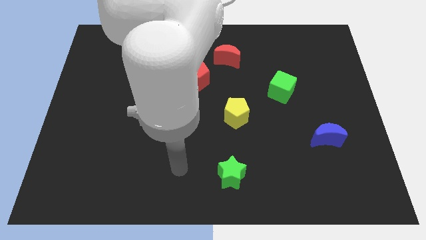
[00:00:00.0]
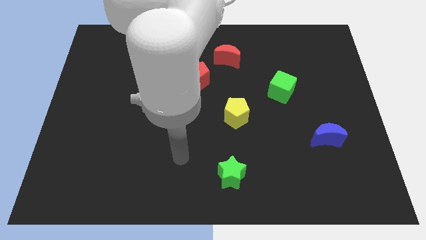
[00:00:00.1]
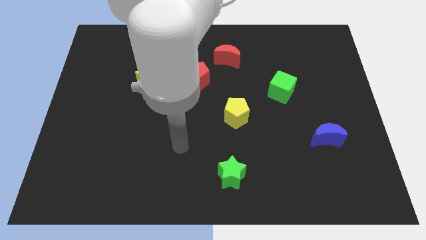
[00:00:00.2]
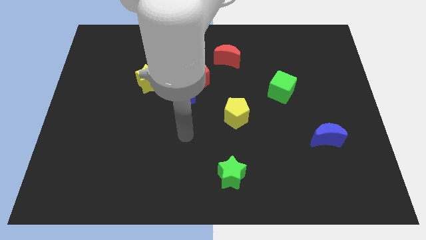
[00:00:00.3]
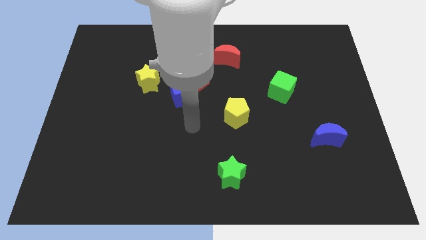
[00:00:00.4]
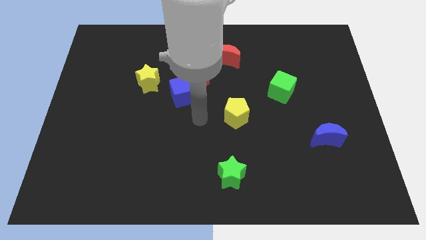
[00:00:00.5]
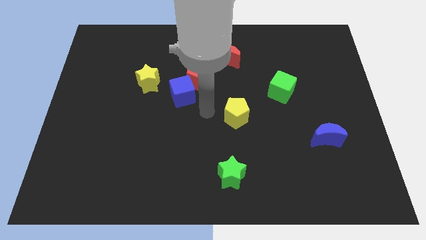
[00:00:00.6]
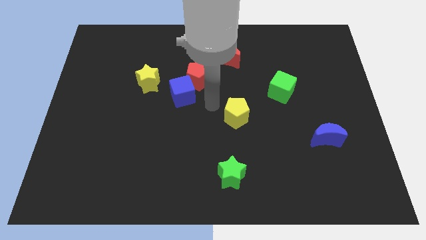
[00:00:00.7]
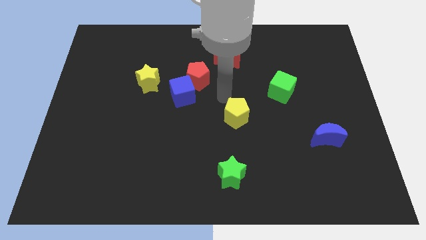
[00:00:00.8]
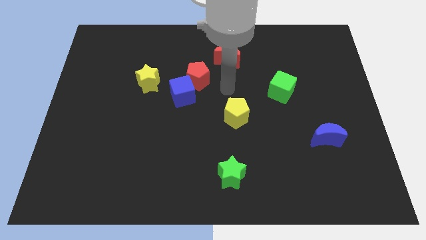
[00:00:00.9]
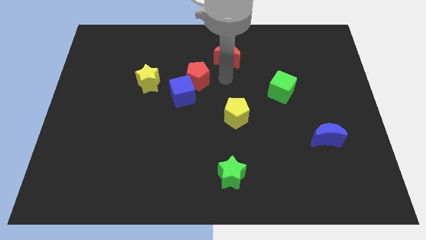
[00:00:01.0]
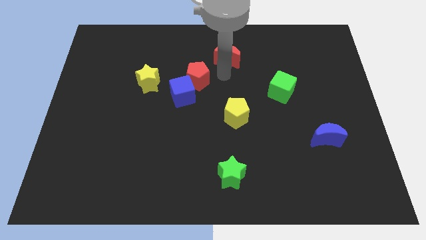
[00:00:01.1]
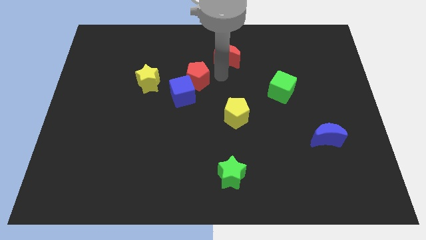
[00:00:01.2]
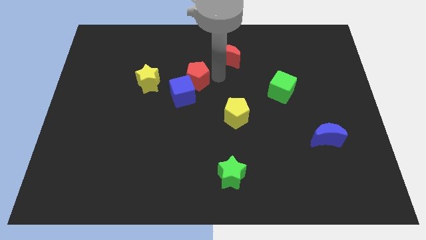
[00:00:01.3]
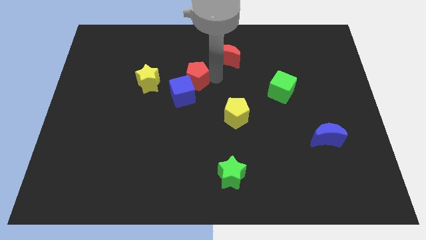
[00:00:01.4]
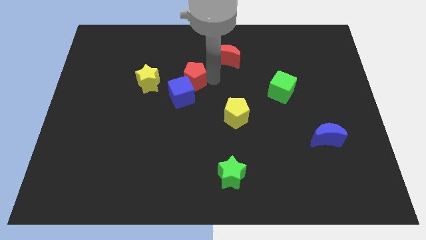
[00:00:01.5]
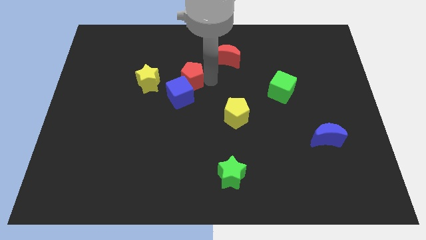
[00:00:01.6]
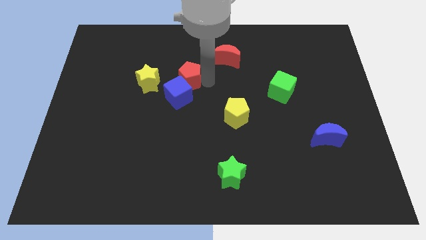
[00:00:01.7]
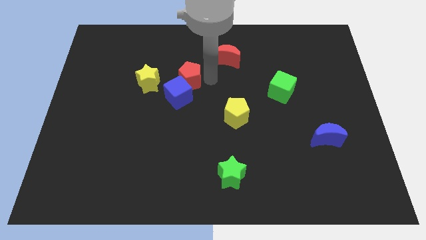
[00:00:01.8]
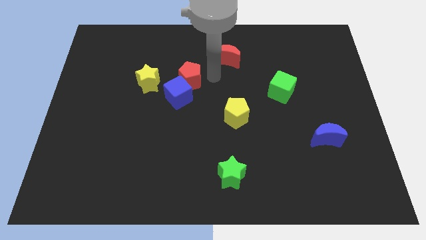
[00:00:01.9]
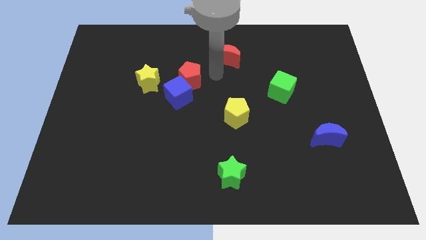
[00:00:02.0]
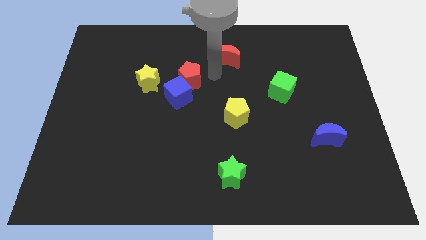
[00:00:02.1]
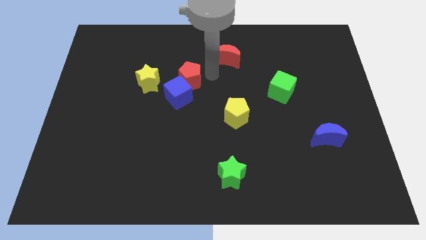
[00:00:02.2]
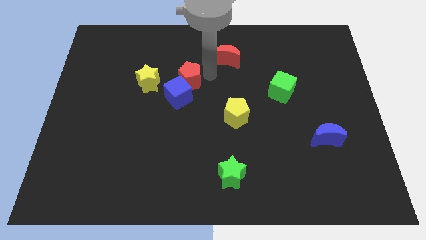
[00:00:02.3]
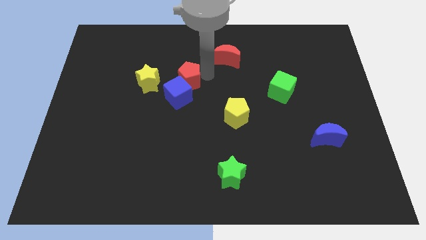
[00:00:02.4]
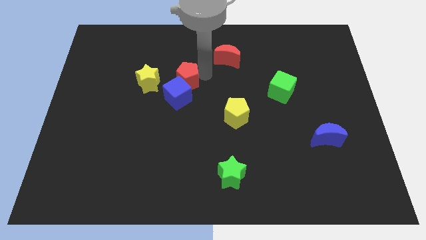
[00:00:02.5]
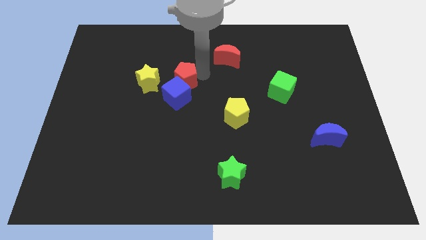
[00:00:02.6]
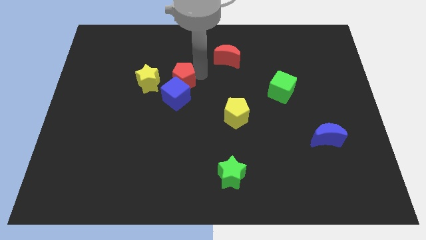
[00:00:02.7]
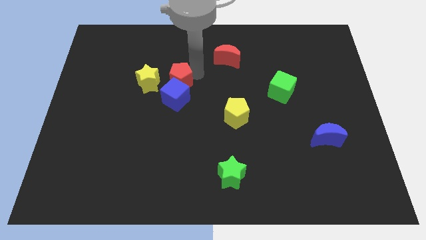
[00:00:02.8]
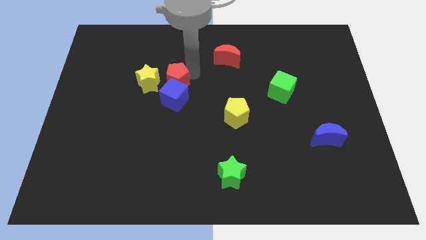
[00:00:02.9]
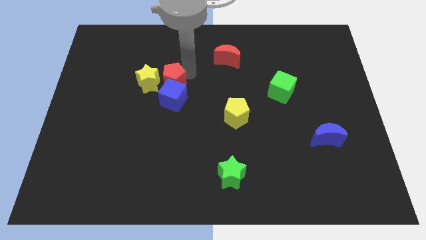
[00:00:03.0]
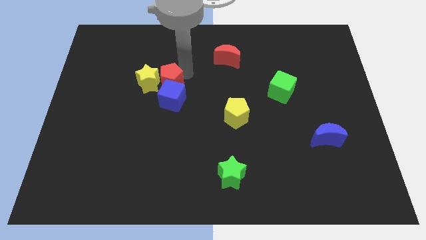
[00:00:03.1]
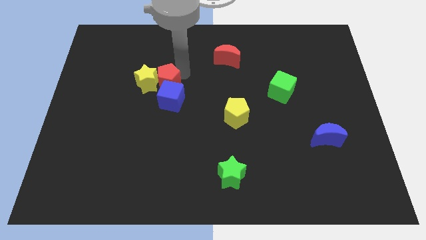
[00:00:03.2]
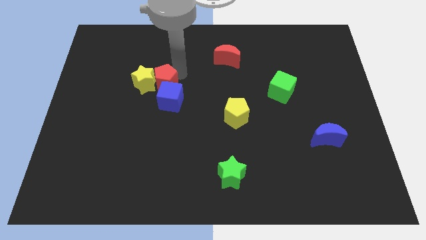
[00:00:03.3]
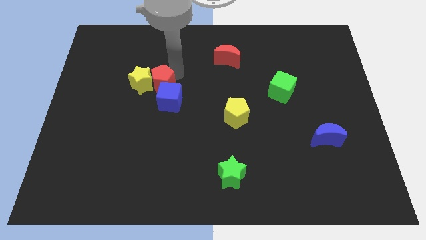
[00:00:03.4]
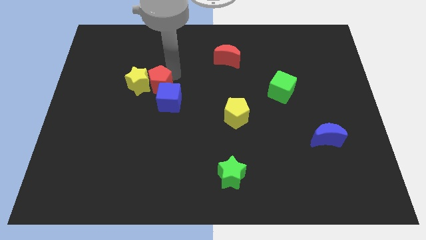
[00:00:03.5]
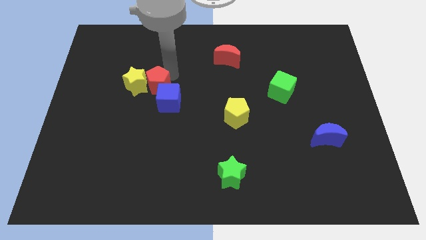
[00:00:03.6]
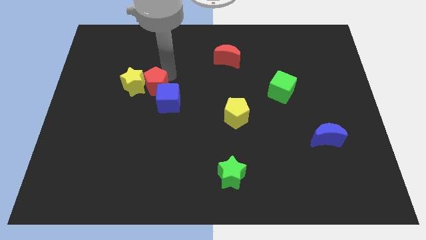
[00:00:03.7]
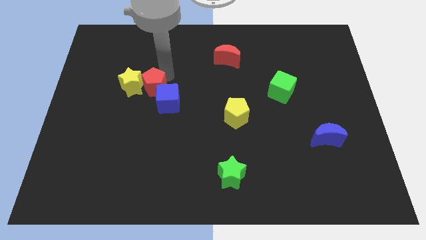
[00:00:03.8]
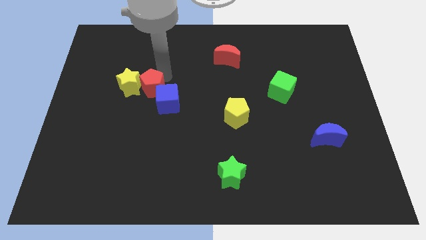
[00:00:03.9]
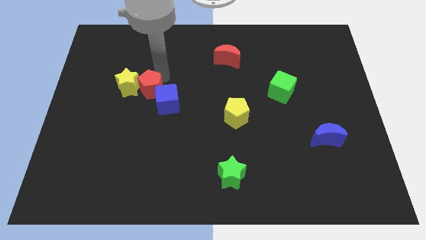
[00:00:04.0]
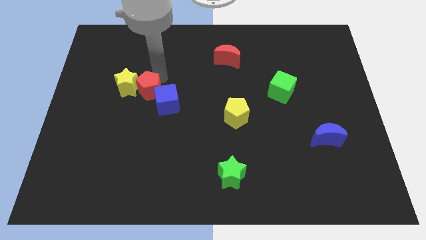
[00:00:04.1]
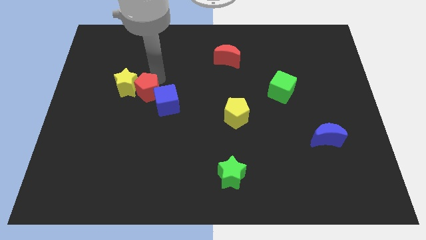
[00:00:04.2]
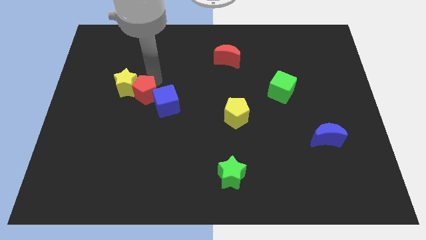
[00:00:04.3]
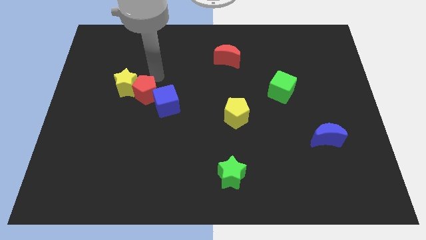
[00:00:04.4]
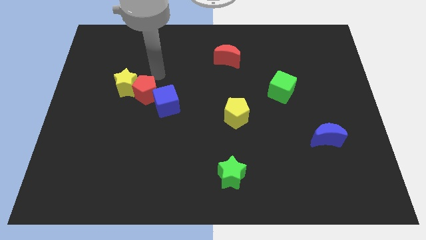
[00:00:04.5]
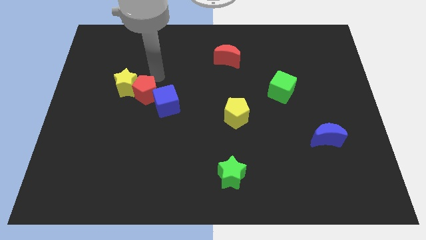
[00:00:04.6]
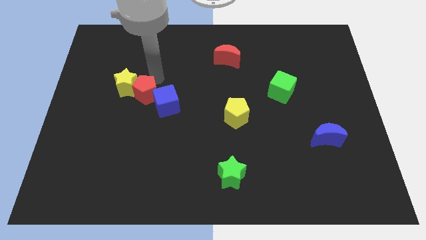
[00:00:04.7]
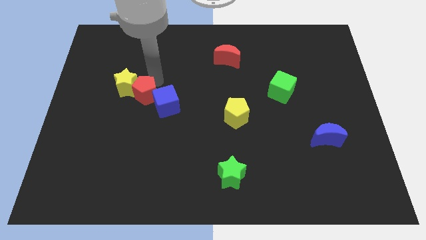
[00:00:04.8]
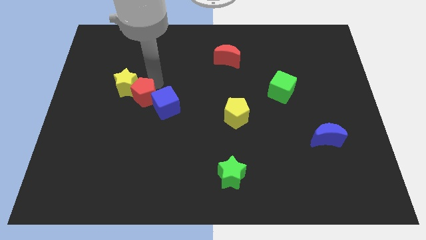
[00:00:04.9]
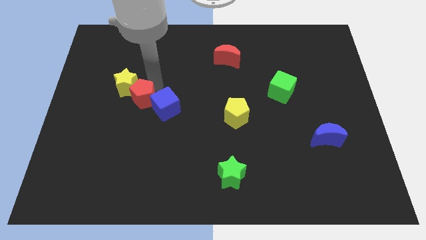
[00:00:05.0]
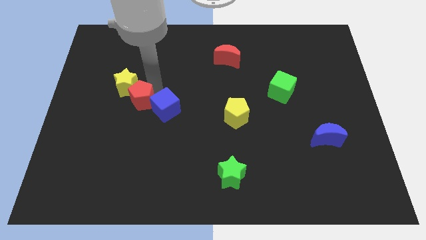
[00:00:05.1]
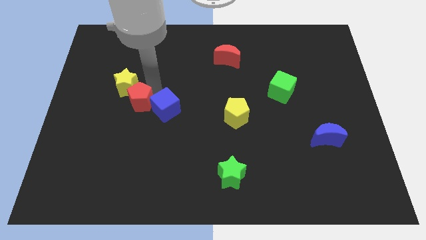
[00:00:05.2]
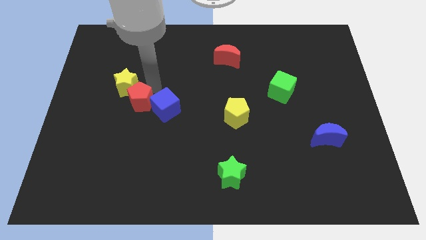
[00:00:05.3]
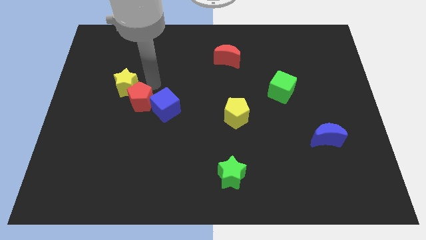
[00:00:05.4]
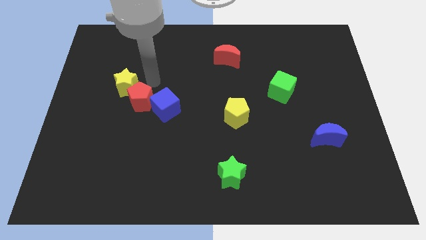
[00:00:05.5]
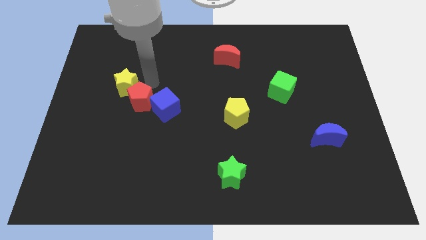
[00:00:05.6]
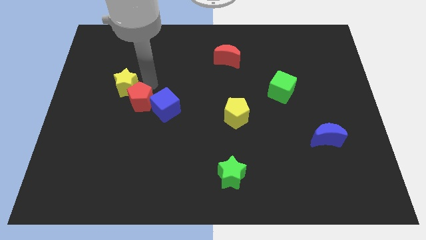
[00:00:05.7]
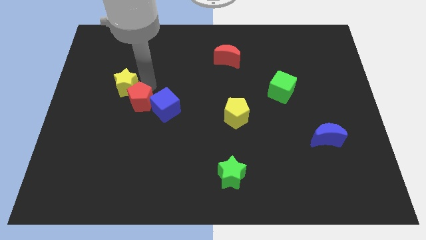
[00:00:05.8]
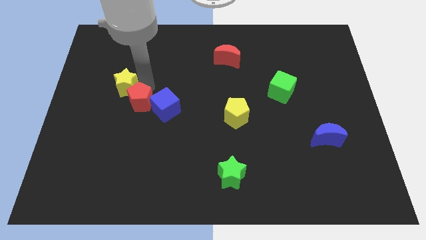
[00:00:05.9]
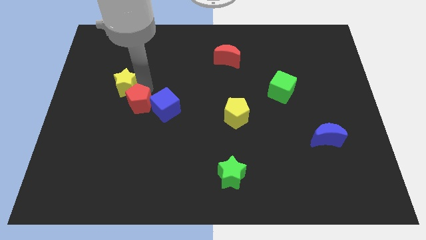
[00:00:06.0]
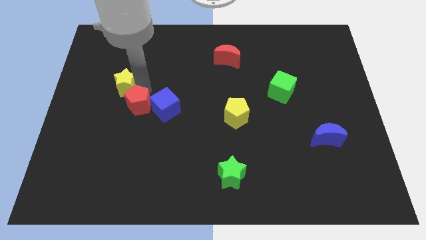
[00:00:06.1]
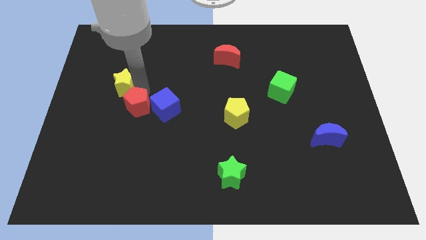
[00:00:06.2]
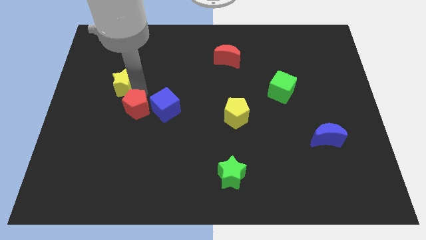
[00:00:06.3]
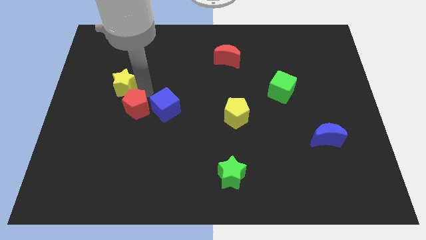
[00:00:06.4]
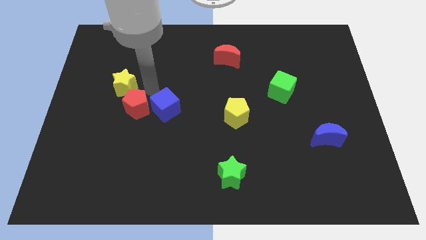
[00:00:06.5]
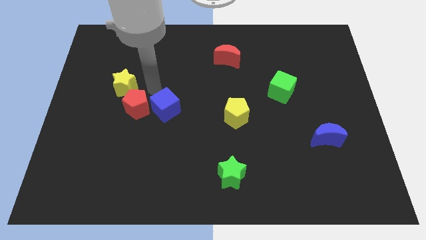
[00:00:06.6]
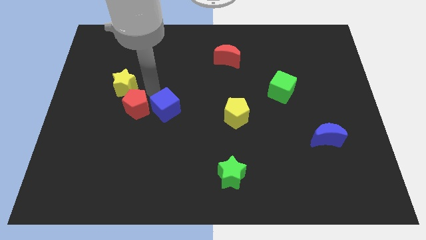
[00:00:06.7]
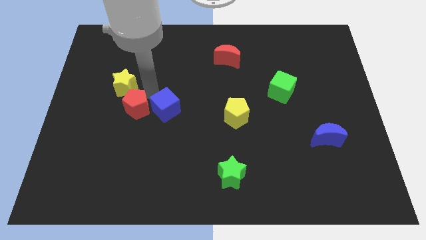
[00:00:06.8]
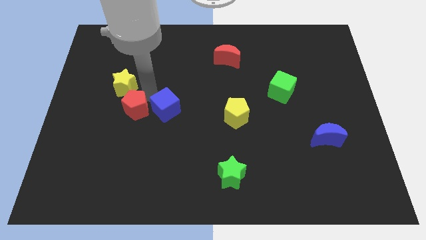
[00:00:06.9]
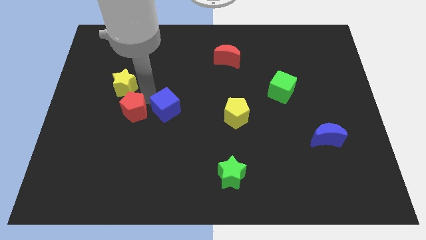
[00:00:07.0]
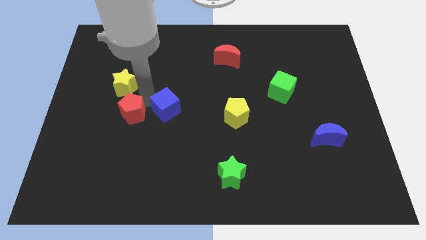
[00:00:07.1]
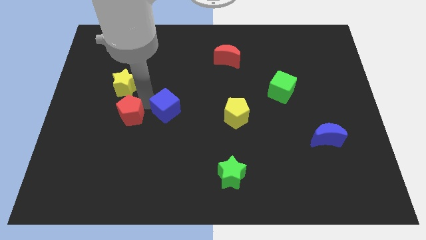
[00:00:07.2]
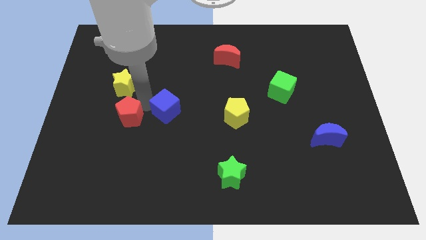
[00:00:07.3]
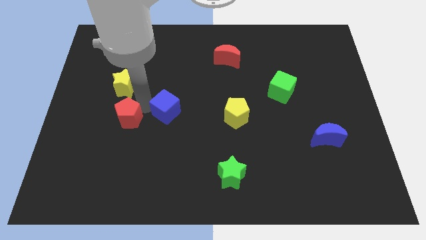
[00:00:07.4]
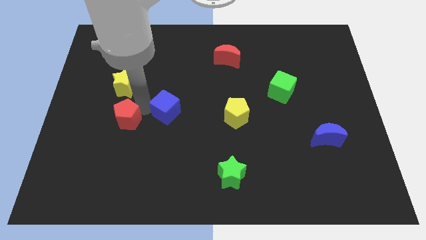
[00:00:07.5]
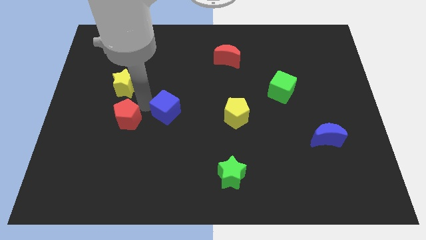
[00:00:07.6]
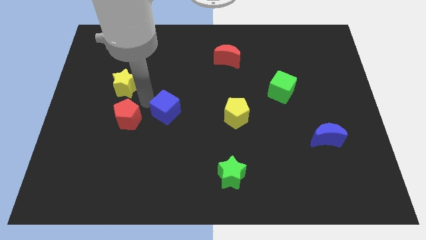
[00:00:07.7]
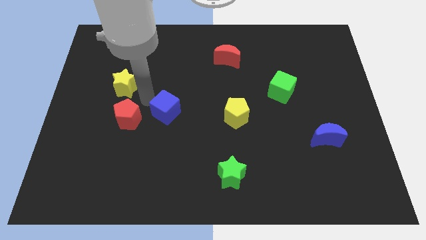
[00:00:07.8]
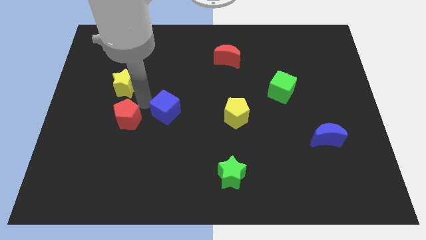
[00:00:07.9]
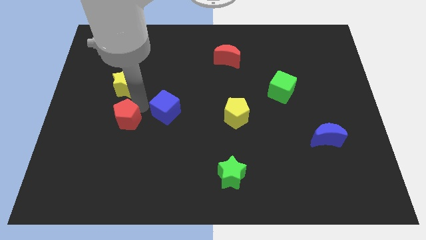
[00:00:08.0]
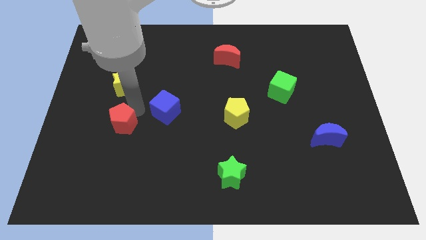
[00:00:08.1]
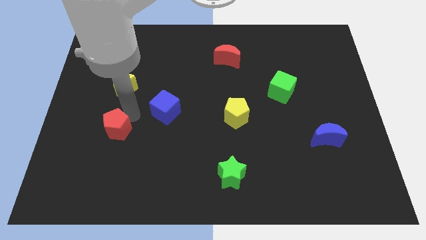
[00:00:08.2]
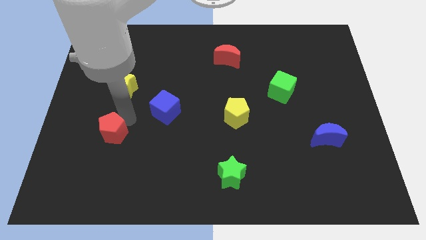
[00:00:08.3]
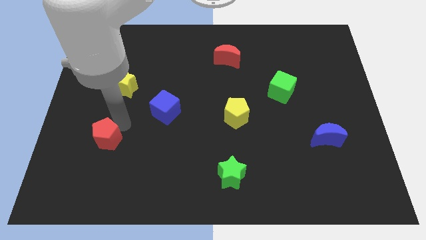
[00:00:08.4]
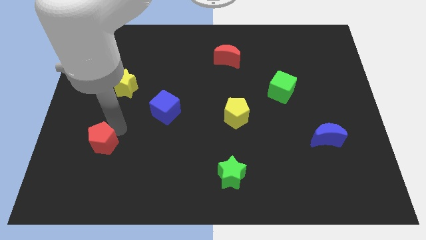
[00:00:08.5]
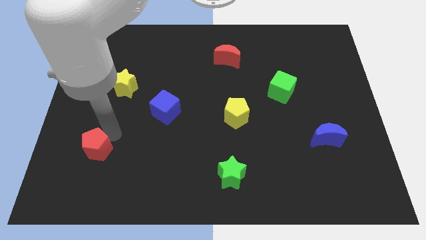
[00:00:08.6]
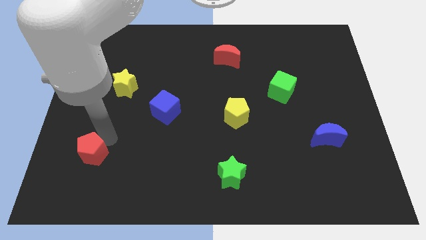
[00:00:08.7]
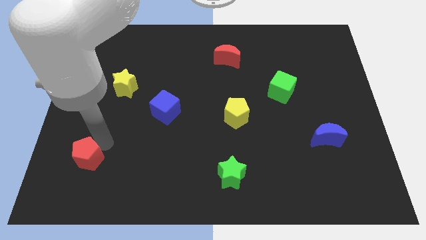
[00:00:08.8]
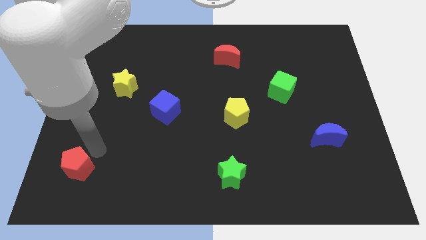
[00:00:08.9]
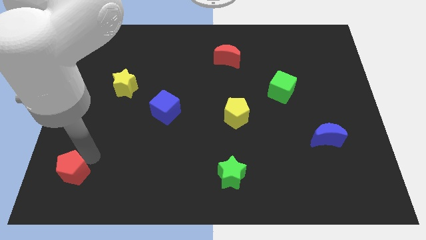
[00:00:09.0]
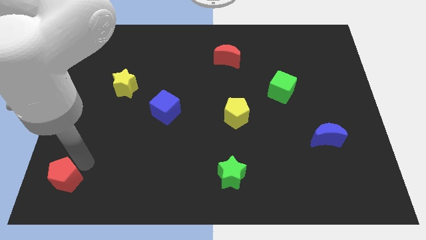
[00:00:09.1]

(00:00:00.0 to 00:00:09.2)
move the red pentagon to the bottom left
